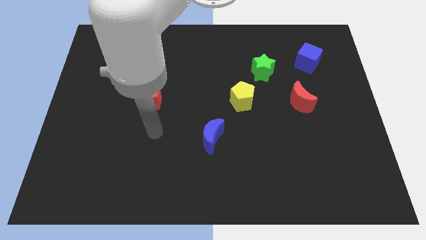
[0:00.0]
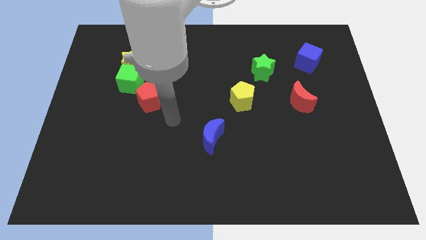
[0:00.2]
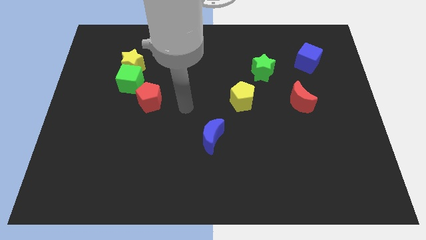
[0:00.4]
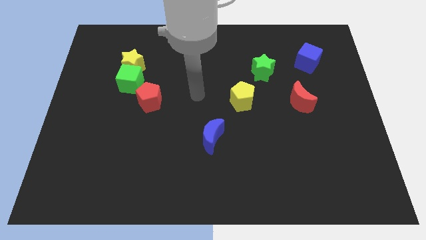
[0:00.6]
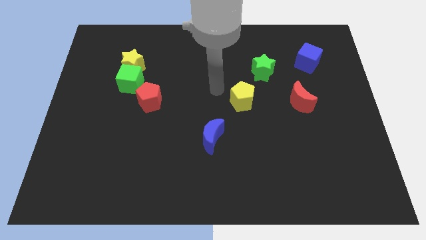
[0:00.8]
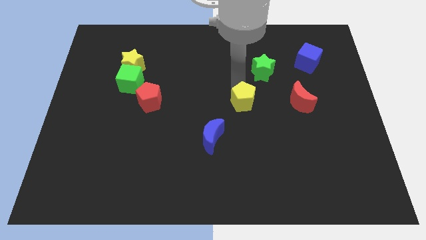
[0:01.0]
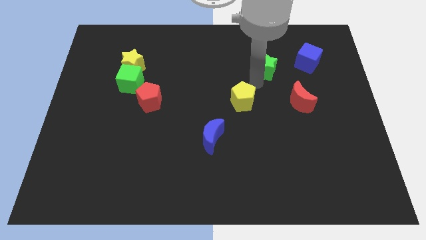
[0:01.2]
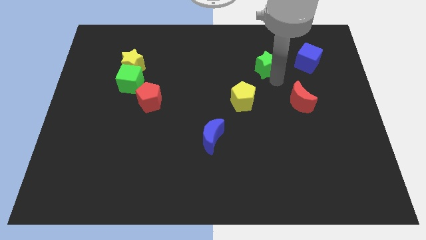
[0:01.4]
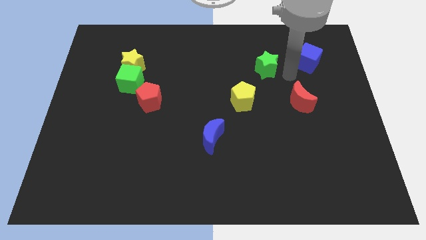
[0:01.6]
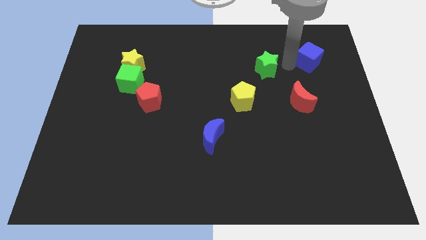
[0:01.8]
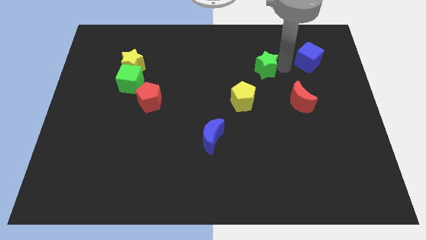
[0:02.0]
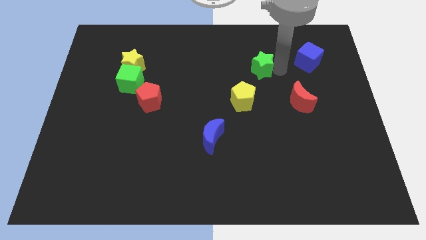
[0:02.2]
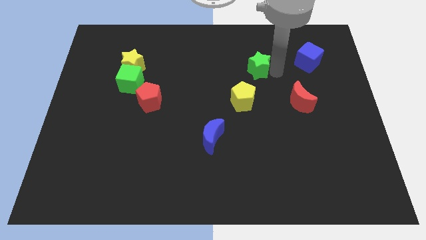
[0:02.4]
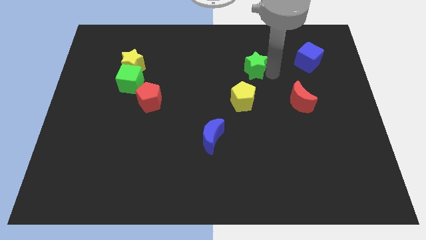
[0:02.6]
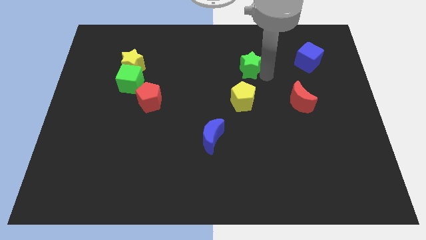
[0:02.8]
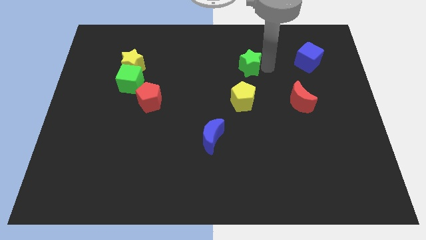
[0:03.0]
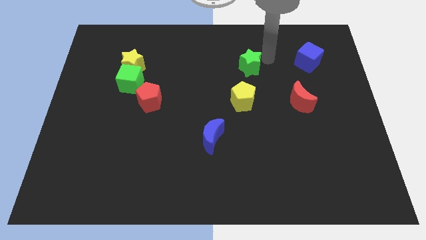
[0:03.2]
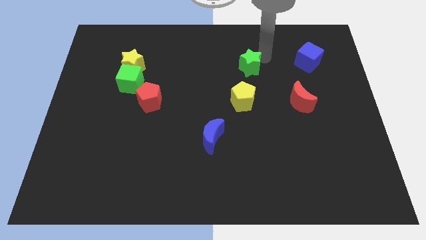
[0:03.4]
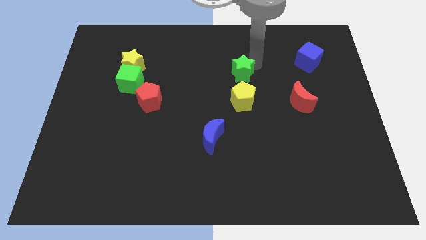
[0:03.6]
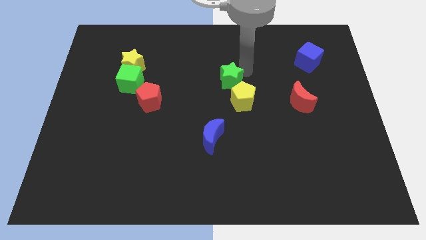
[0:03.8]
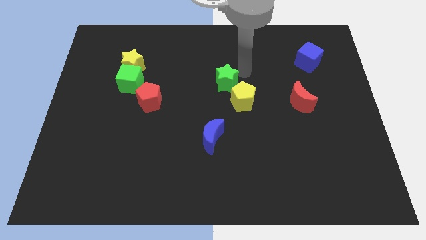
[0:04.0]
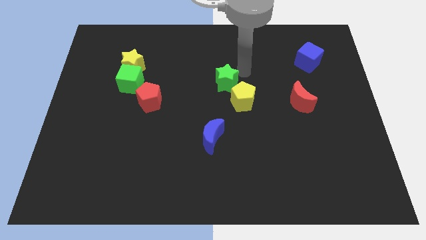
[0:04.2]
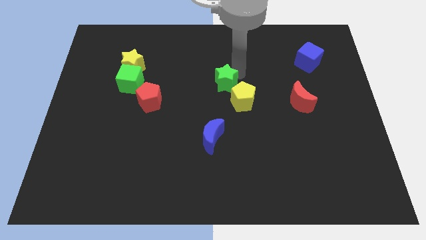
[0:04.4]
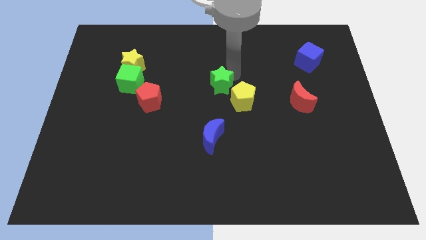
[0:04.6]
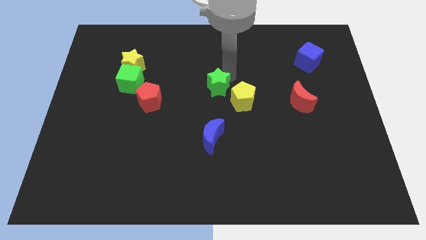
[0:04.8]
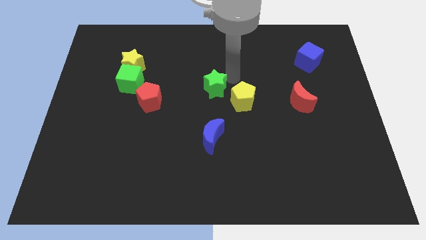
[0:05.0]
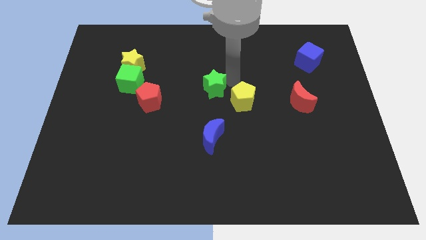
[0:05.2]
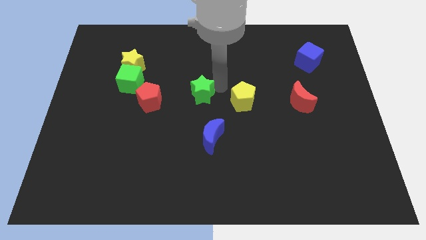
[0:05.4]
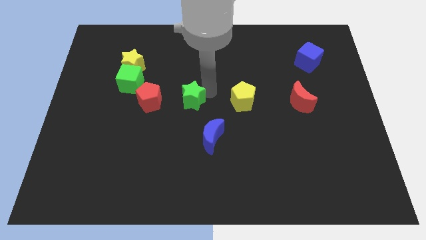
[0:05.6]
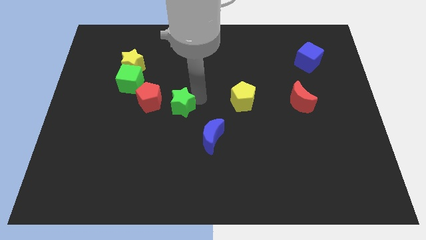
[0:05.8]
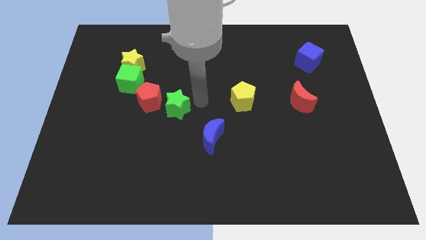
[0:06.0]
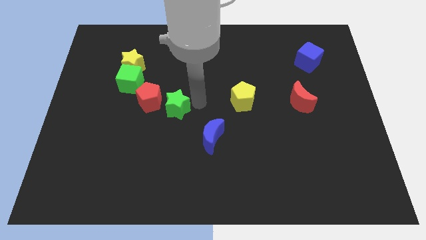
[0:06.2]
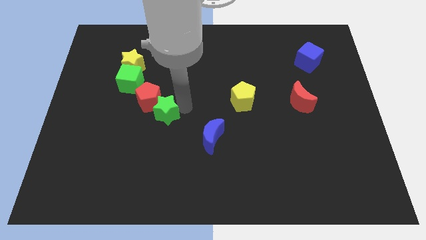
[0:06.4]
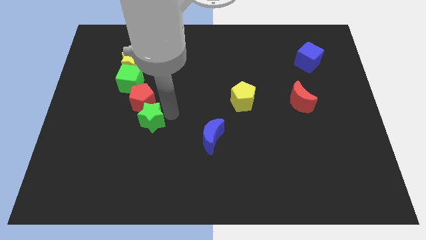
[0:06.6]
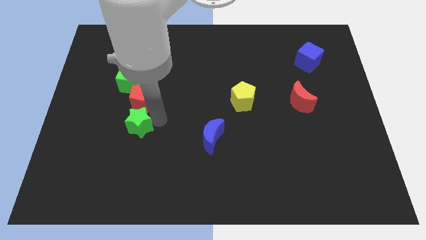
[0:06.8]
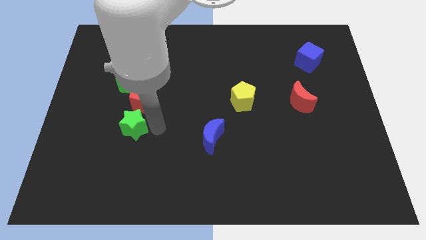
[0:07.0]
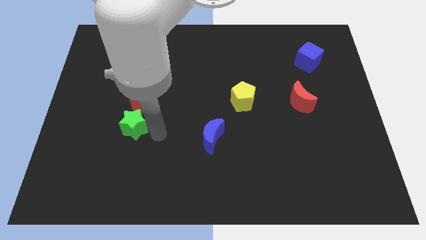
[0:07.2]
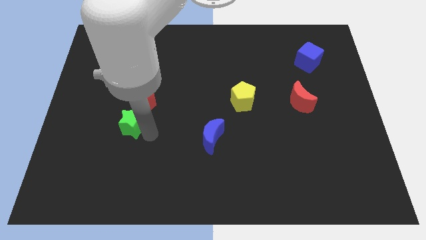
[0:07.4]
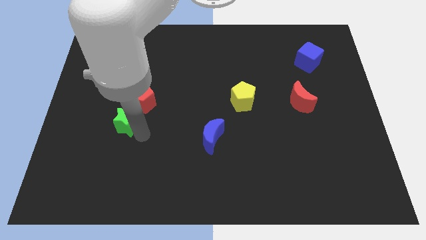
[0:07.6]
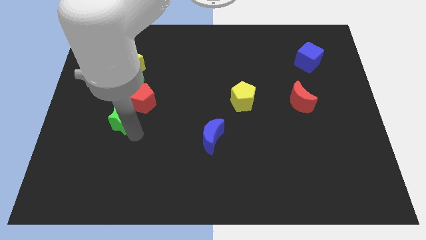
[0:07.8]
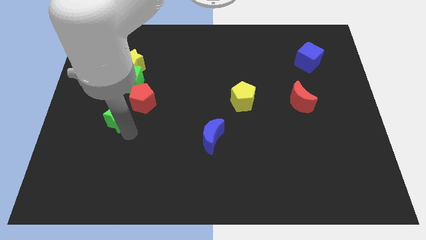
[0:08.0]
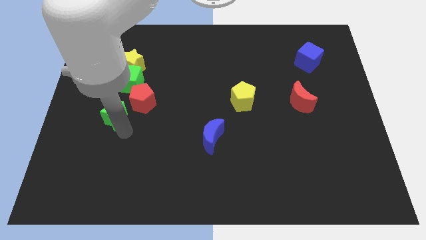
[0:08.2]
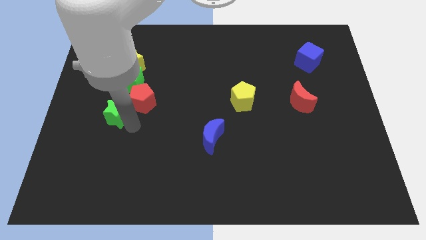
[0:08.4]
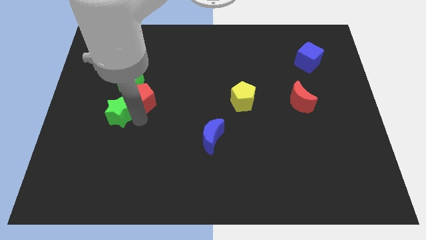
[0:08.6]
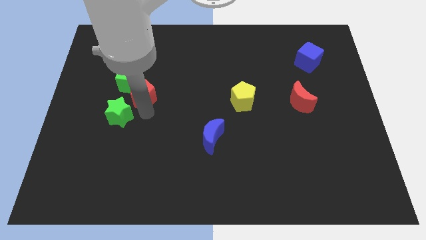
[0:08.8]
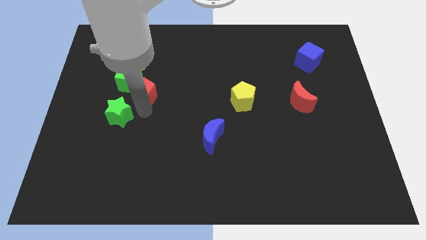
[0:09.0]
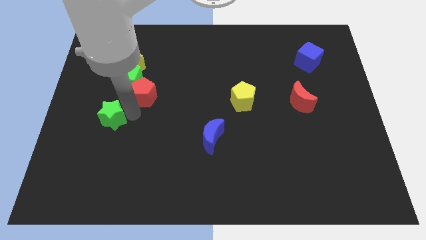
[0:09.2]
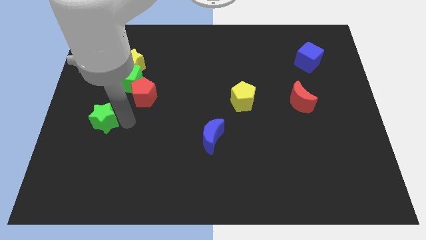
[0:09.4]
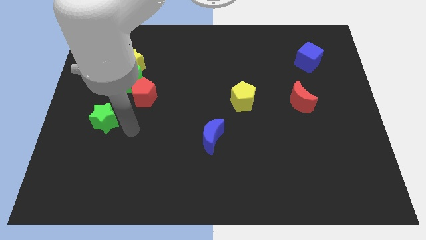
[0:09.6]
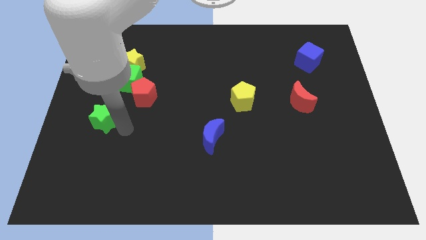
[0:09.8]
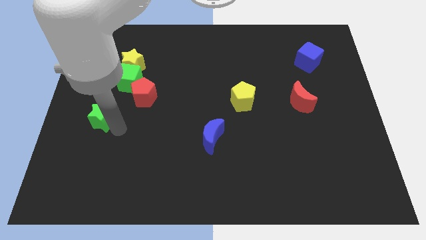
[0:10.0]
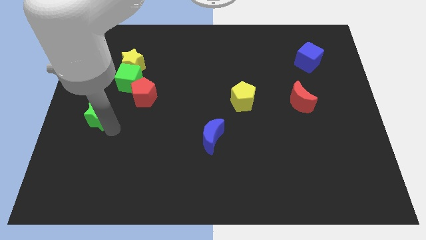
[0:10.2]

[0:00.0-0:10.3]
move the green star to the center left

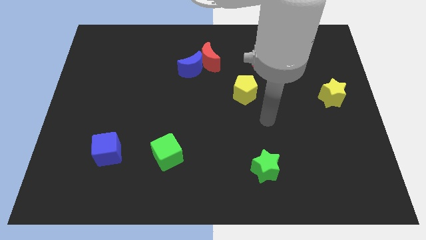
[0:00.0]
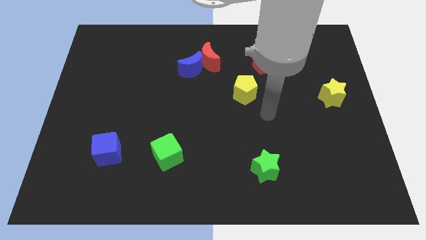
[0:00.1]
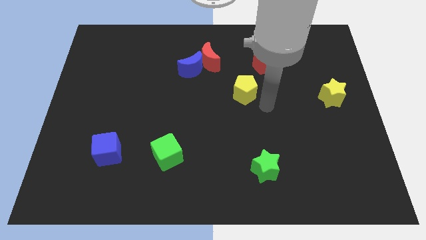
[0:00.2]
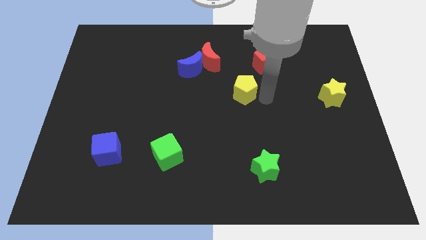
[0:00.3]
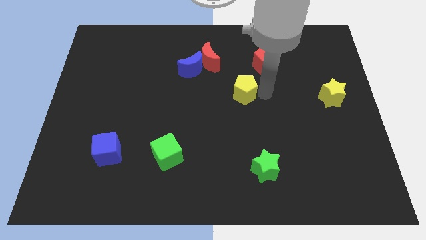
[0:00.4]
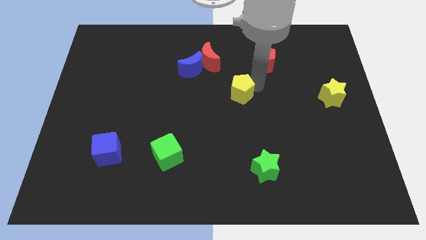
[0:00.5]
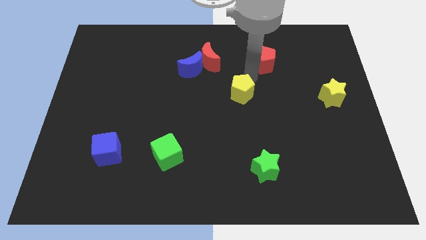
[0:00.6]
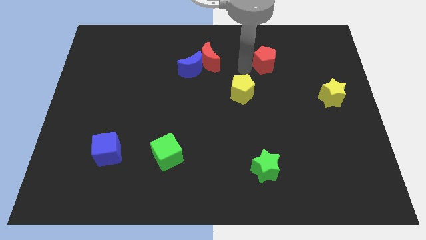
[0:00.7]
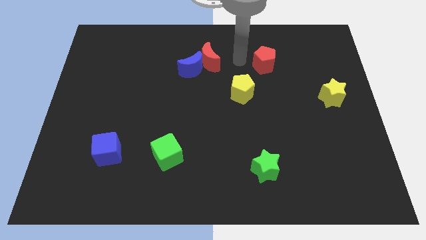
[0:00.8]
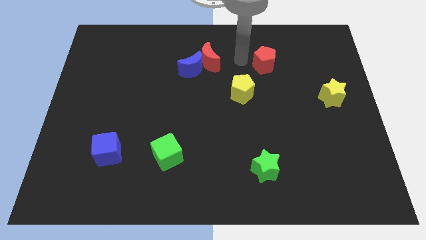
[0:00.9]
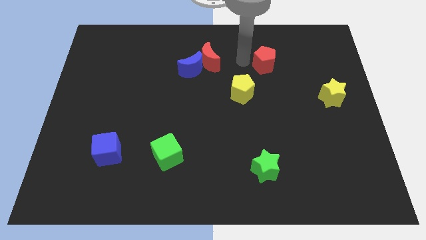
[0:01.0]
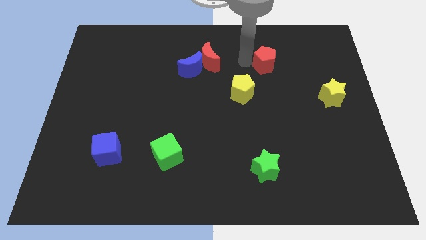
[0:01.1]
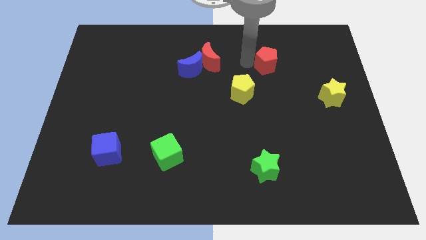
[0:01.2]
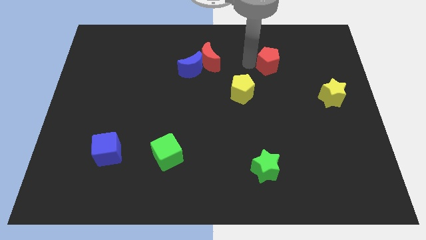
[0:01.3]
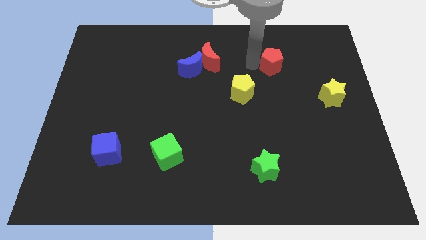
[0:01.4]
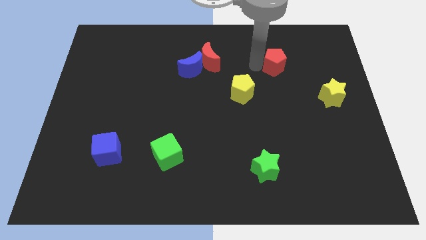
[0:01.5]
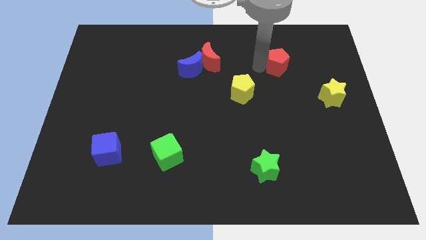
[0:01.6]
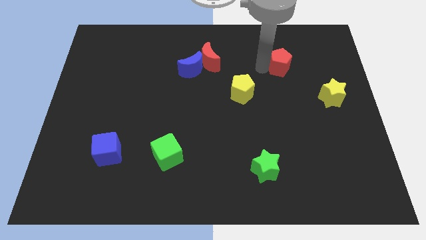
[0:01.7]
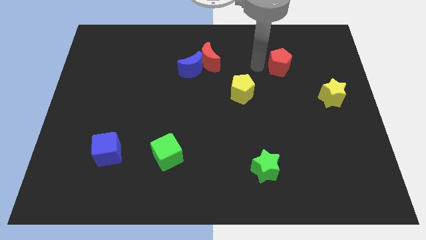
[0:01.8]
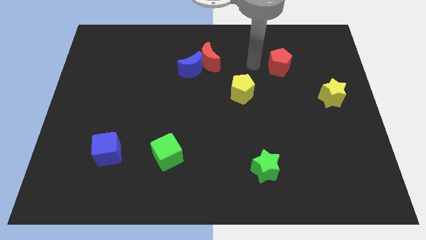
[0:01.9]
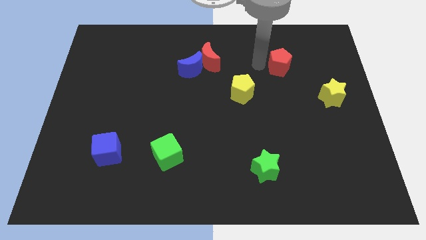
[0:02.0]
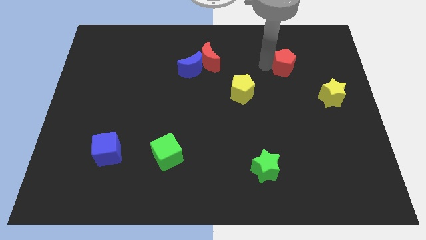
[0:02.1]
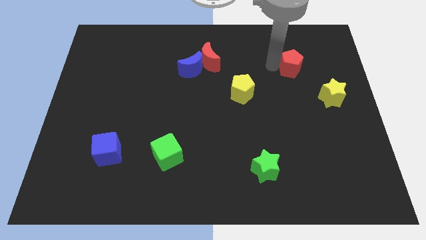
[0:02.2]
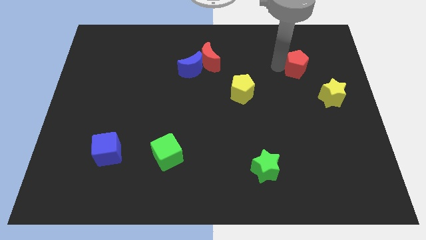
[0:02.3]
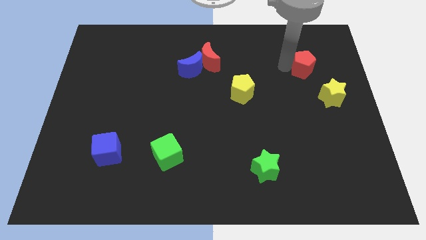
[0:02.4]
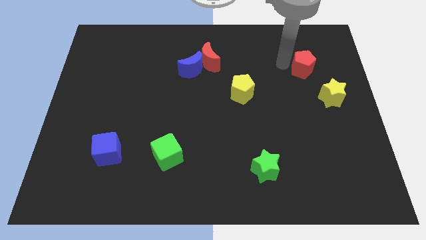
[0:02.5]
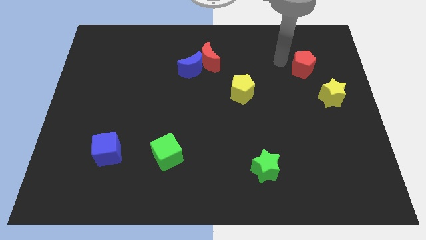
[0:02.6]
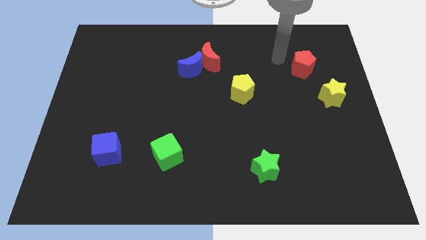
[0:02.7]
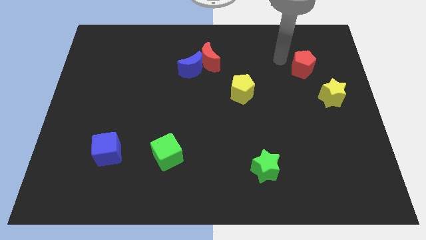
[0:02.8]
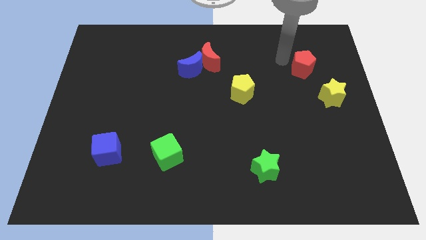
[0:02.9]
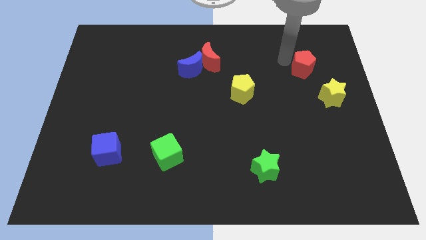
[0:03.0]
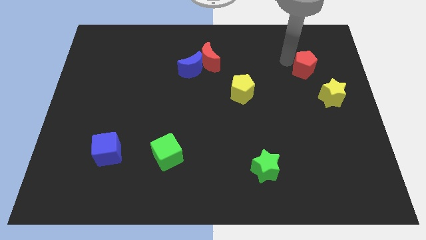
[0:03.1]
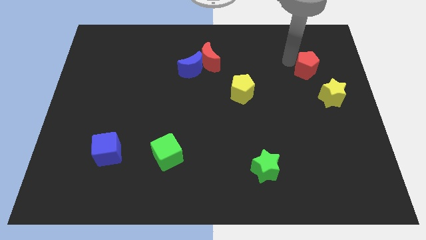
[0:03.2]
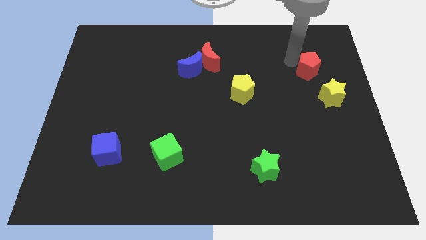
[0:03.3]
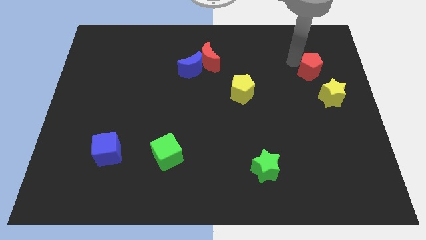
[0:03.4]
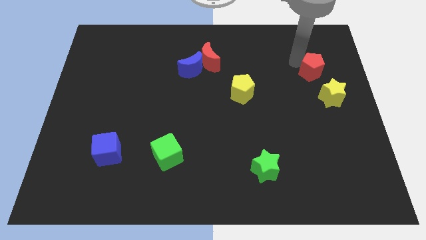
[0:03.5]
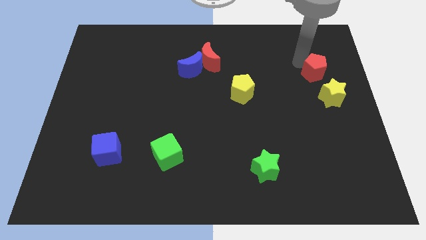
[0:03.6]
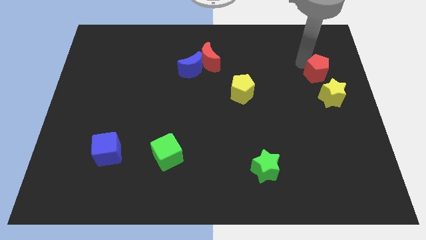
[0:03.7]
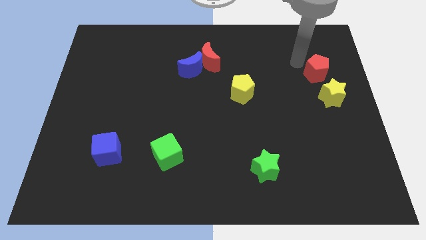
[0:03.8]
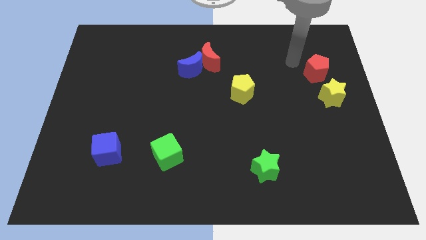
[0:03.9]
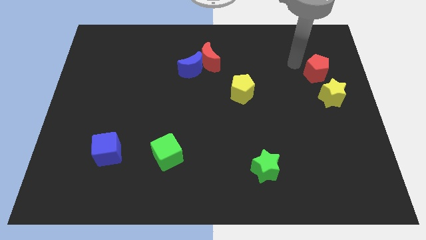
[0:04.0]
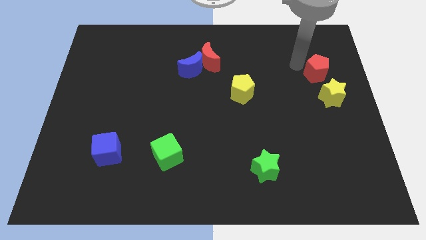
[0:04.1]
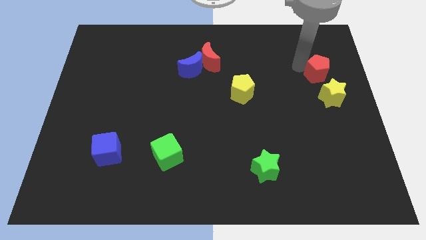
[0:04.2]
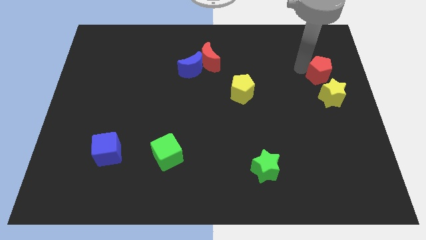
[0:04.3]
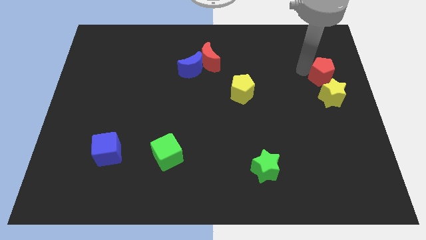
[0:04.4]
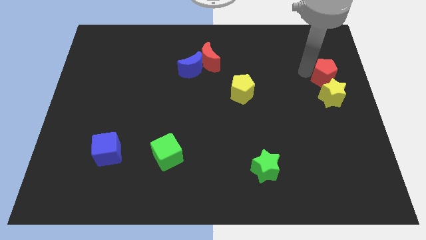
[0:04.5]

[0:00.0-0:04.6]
slide the red pentagon to the center right
